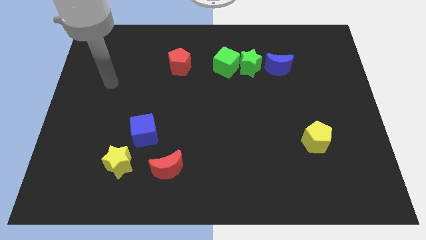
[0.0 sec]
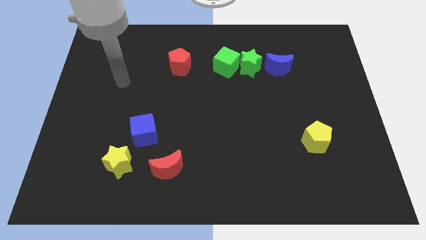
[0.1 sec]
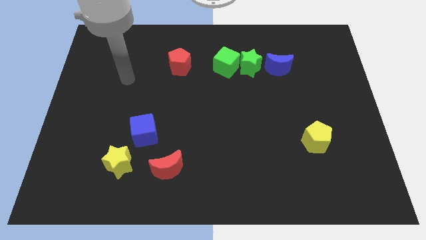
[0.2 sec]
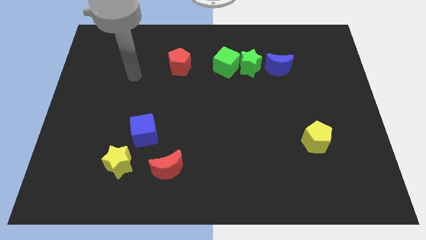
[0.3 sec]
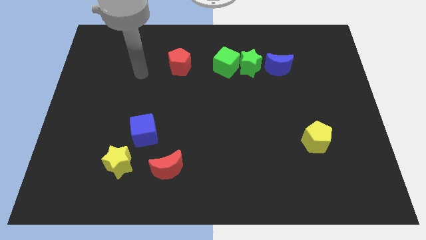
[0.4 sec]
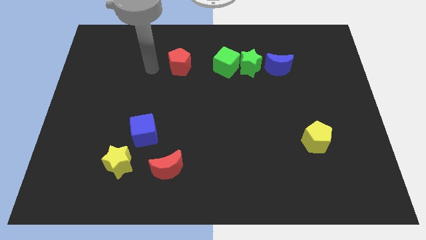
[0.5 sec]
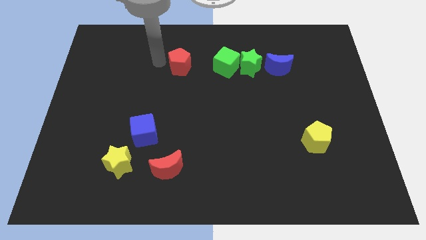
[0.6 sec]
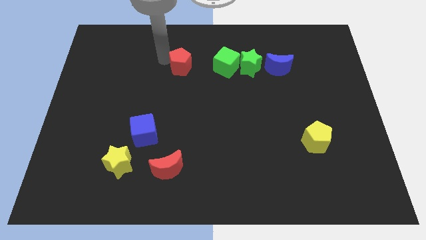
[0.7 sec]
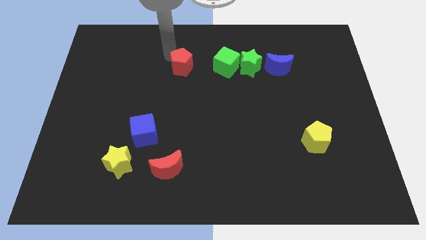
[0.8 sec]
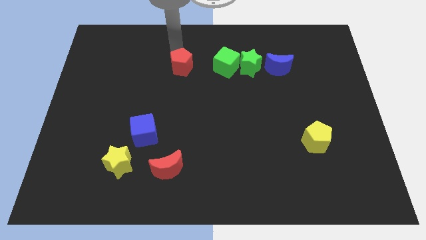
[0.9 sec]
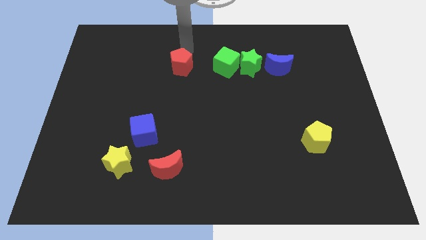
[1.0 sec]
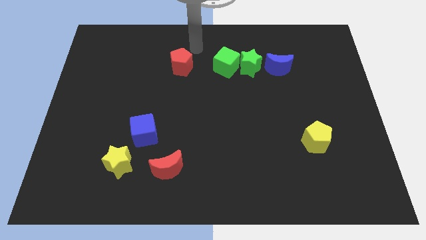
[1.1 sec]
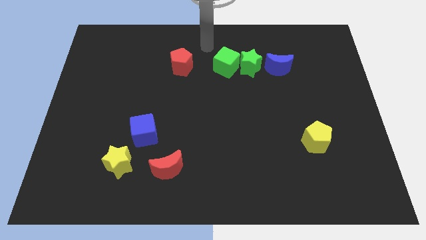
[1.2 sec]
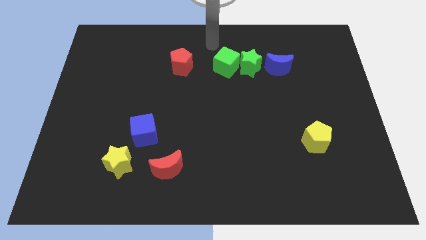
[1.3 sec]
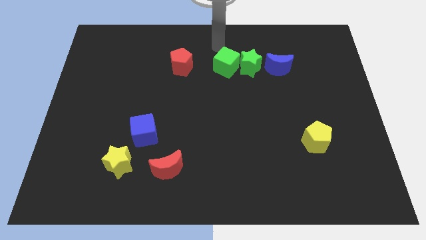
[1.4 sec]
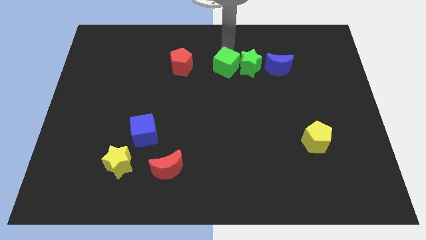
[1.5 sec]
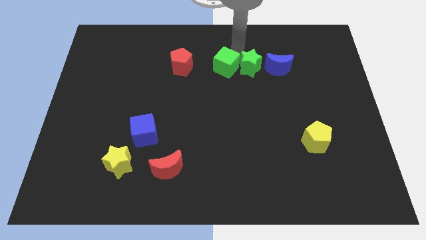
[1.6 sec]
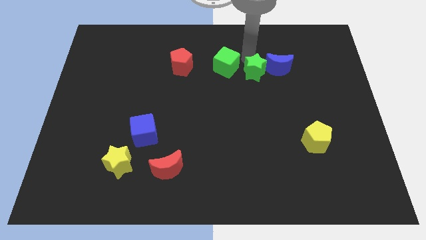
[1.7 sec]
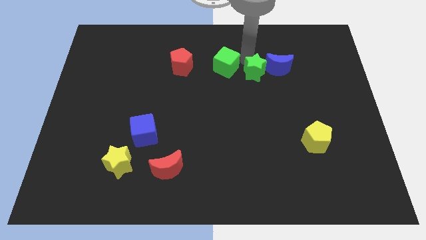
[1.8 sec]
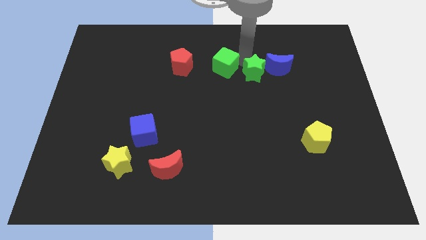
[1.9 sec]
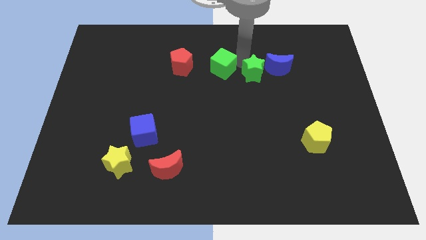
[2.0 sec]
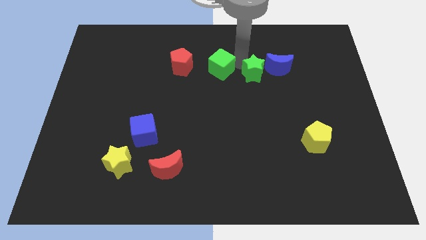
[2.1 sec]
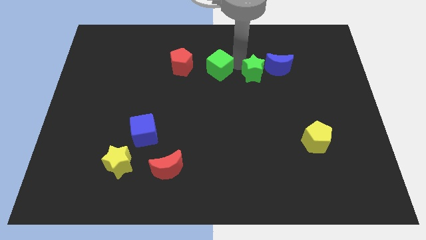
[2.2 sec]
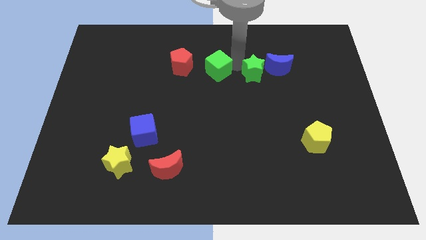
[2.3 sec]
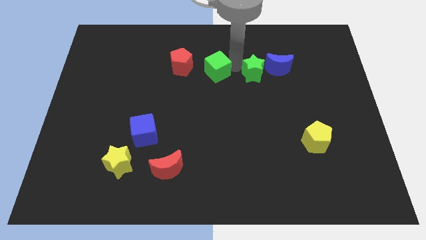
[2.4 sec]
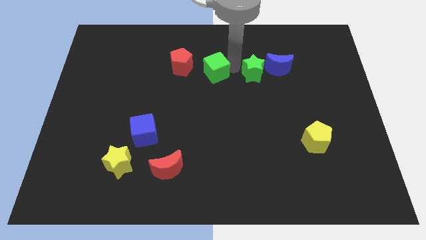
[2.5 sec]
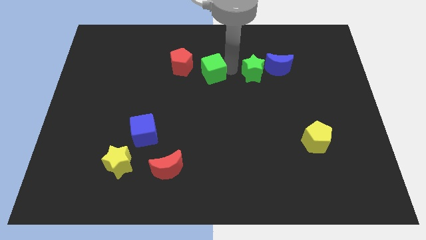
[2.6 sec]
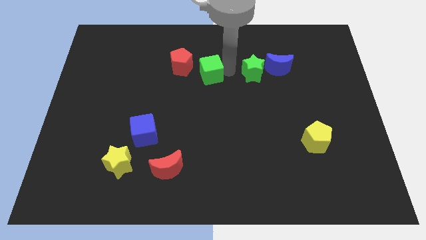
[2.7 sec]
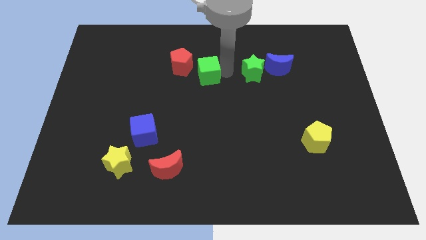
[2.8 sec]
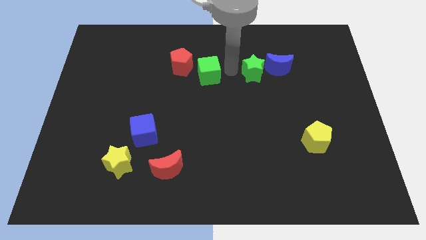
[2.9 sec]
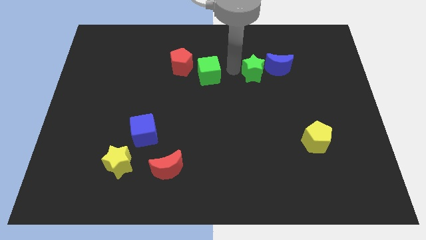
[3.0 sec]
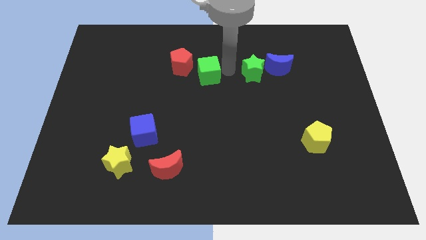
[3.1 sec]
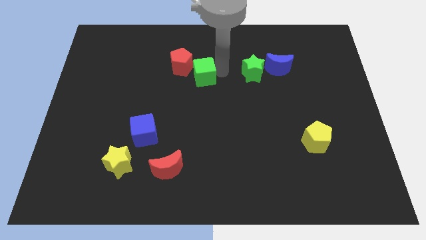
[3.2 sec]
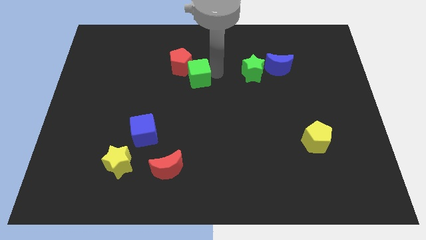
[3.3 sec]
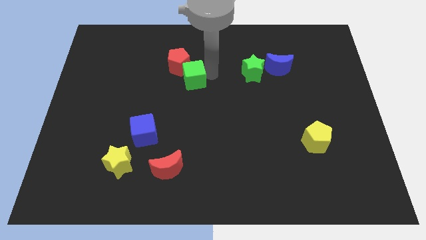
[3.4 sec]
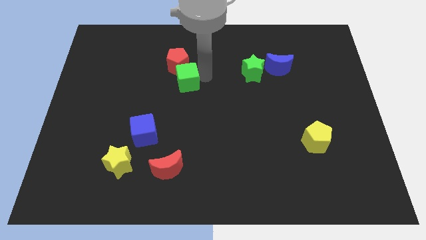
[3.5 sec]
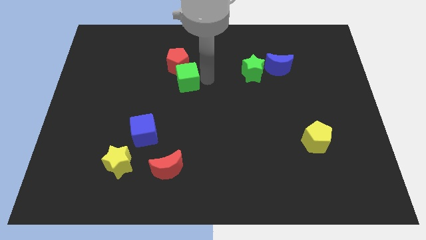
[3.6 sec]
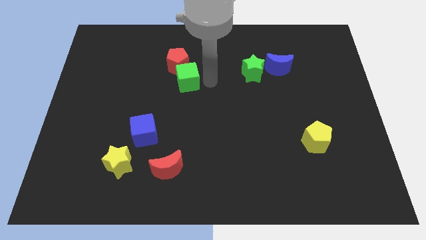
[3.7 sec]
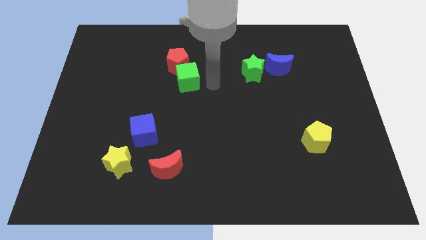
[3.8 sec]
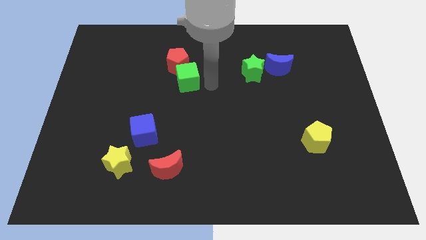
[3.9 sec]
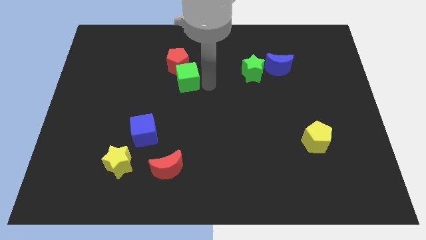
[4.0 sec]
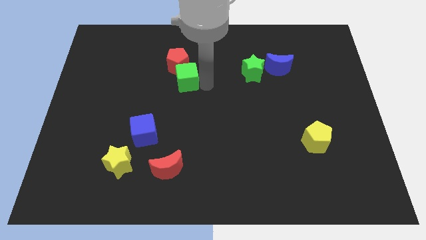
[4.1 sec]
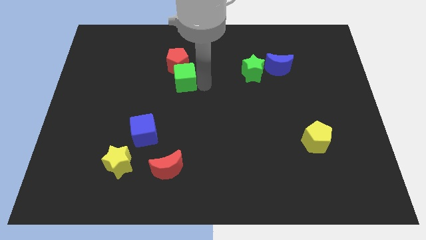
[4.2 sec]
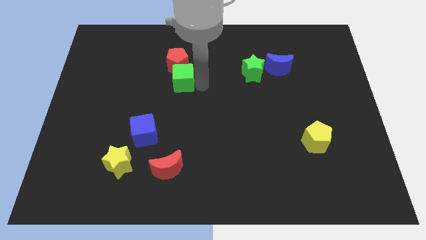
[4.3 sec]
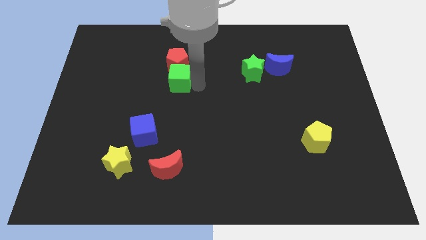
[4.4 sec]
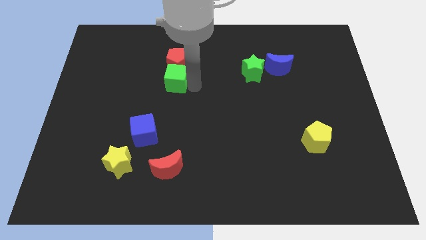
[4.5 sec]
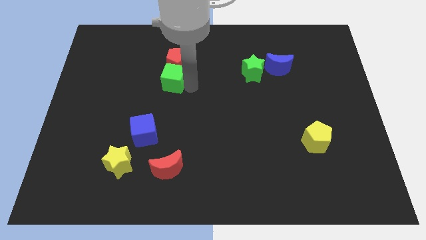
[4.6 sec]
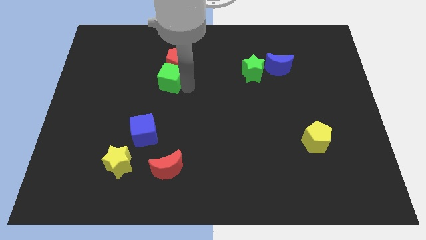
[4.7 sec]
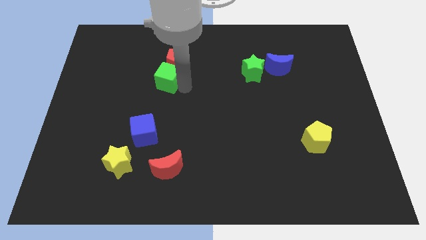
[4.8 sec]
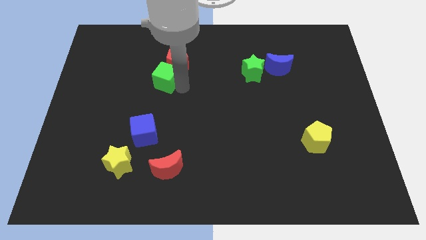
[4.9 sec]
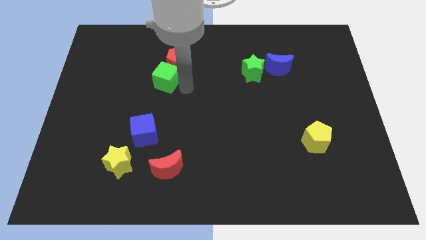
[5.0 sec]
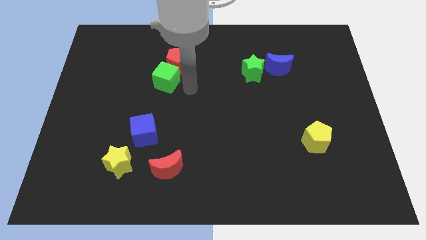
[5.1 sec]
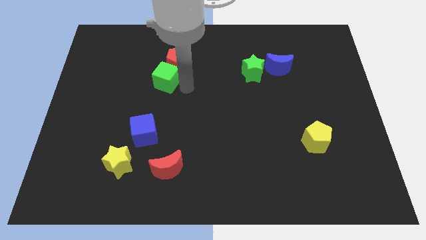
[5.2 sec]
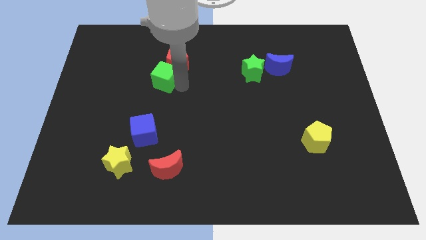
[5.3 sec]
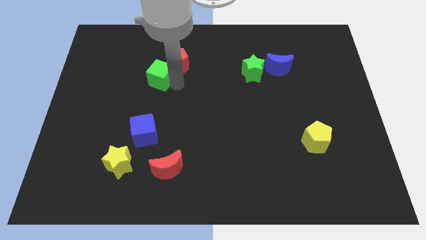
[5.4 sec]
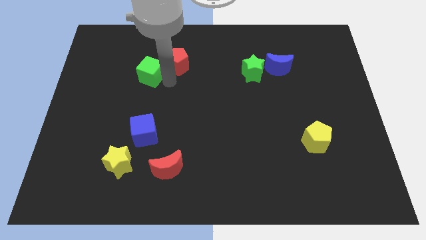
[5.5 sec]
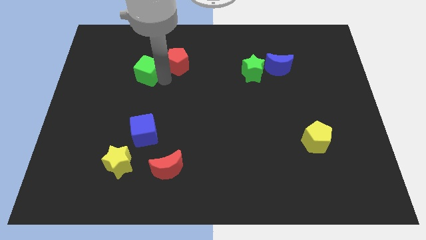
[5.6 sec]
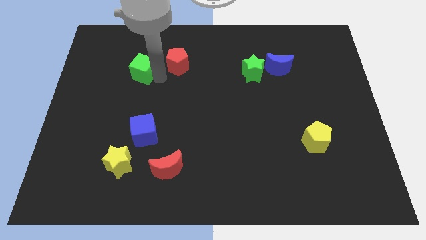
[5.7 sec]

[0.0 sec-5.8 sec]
push the green cube to the left

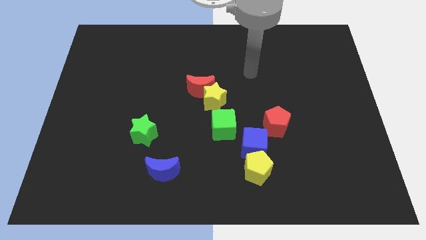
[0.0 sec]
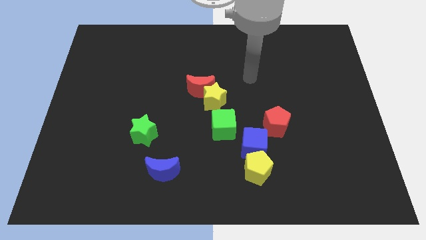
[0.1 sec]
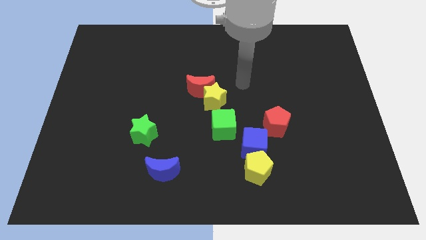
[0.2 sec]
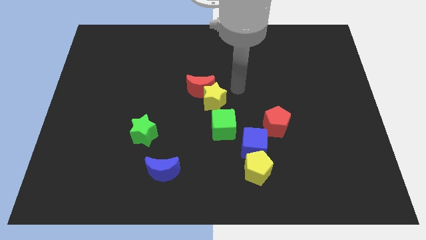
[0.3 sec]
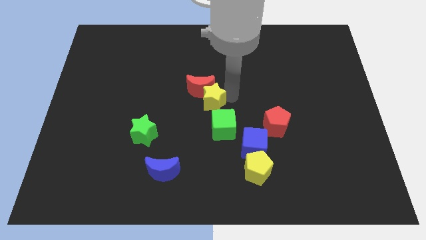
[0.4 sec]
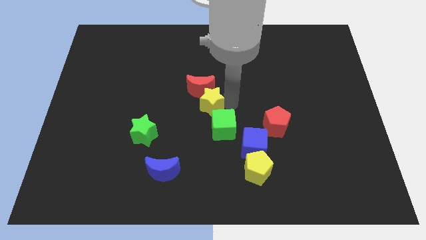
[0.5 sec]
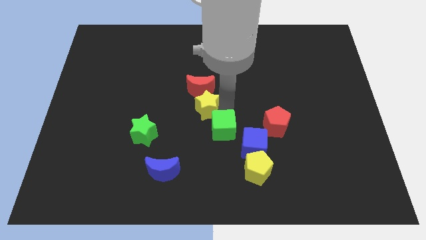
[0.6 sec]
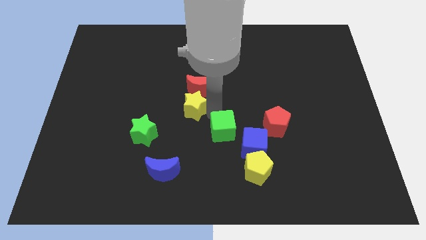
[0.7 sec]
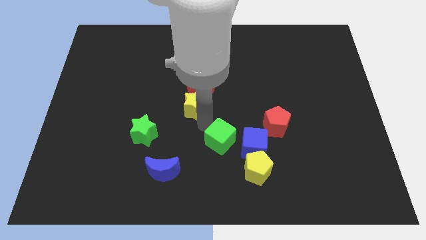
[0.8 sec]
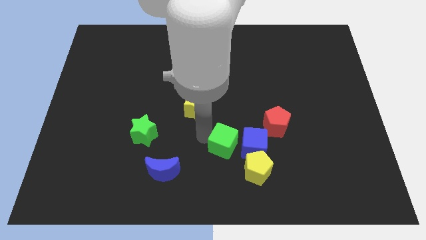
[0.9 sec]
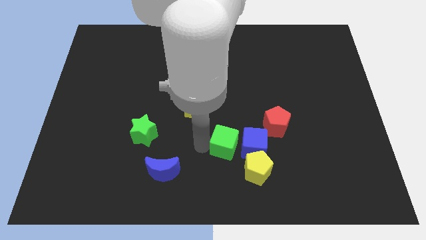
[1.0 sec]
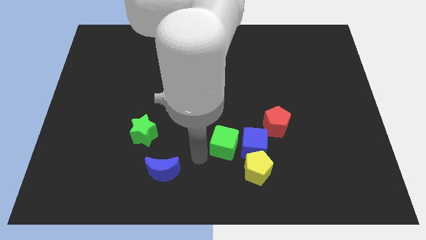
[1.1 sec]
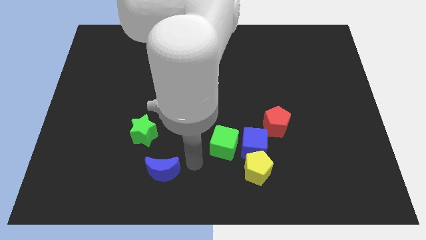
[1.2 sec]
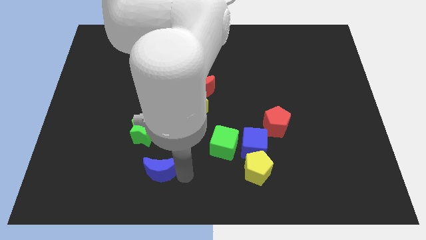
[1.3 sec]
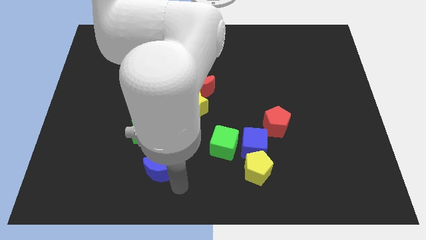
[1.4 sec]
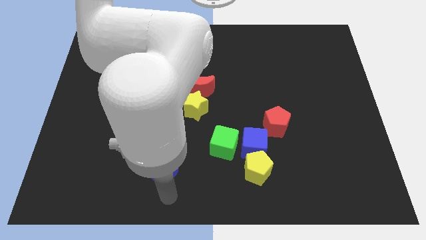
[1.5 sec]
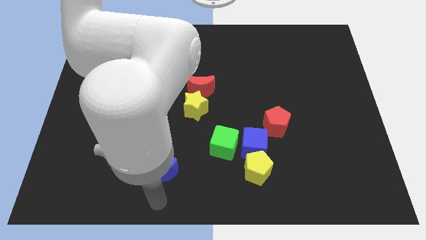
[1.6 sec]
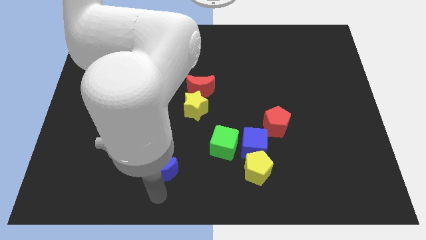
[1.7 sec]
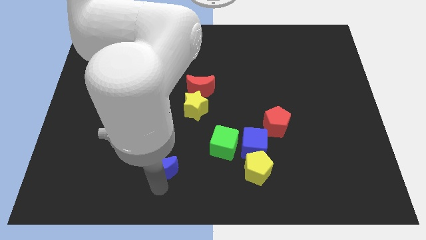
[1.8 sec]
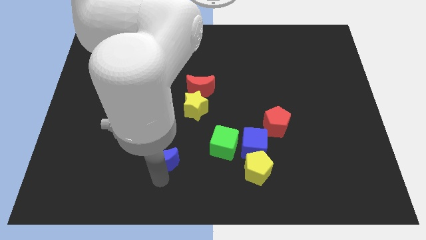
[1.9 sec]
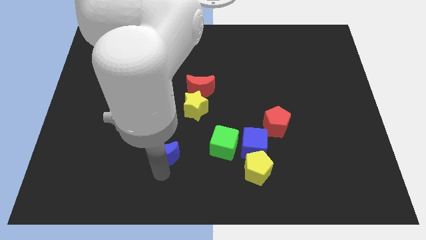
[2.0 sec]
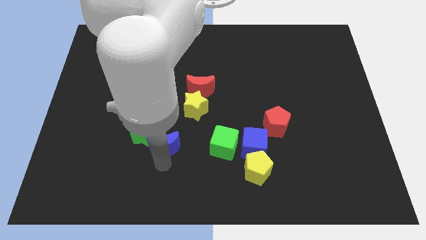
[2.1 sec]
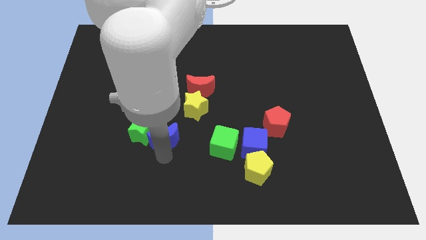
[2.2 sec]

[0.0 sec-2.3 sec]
slightly push the blue moon up

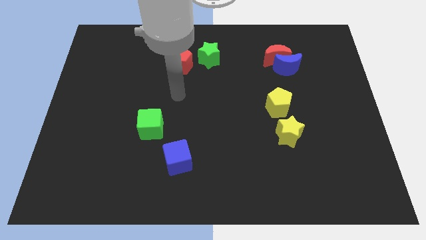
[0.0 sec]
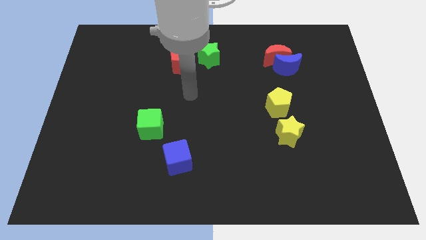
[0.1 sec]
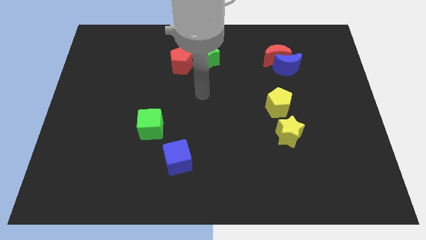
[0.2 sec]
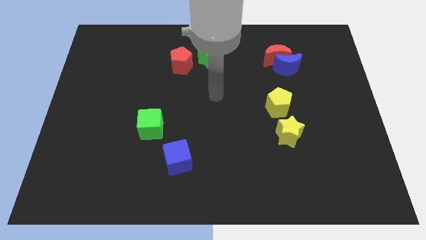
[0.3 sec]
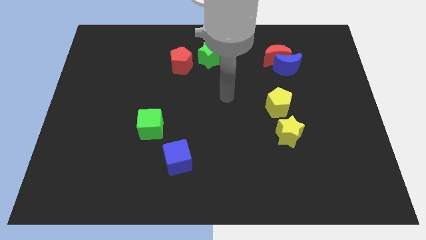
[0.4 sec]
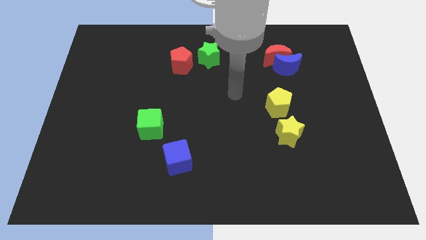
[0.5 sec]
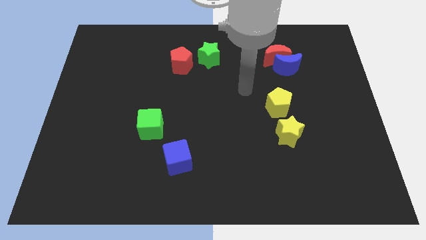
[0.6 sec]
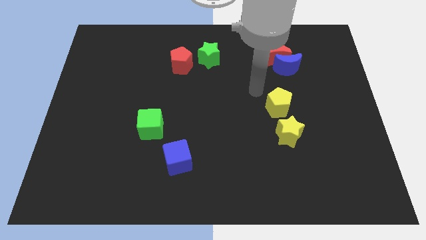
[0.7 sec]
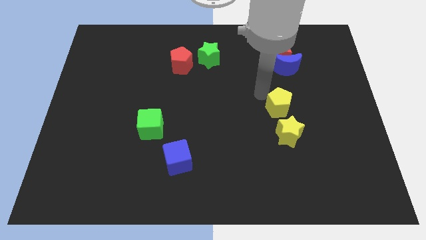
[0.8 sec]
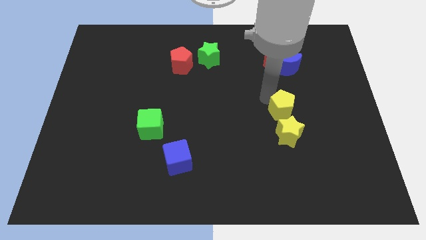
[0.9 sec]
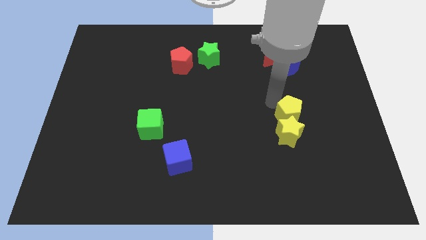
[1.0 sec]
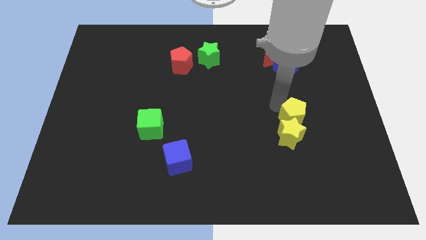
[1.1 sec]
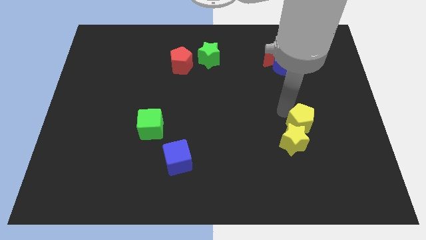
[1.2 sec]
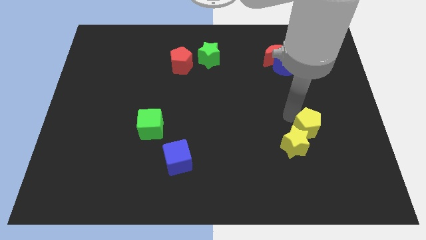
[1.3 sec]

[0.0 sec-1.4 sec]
slide the yellow pentagon down and right diagonally a bit
